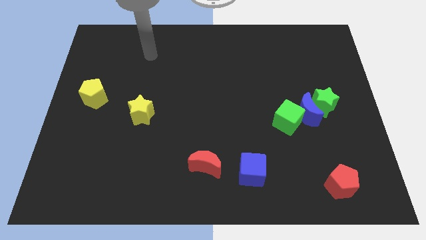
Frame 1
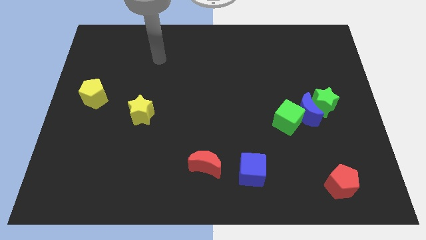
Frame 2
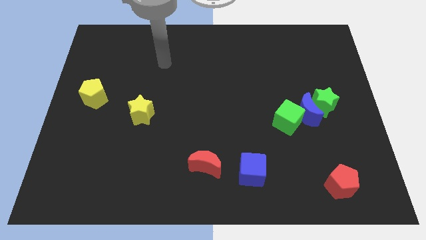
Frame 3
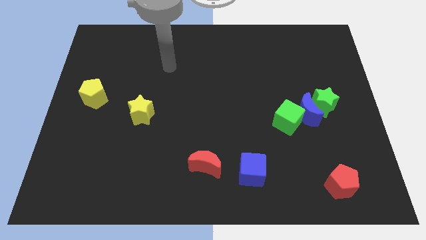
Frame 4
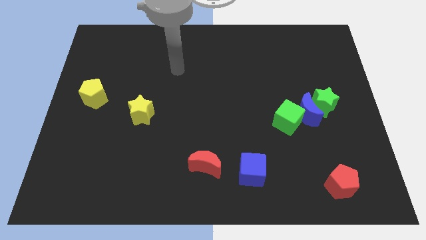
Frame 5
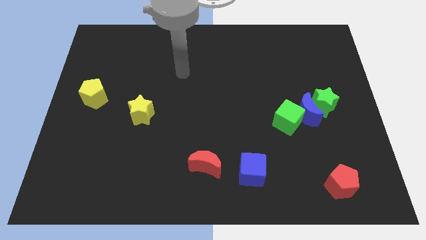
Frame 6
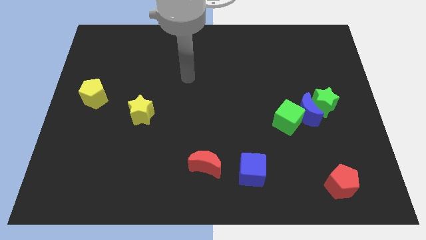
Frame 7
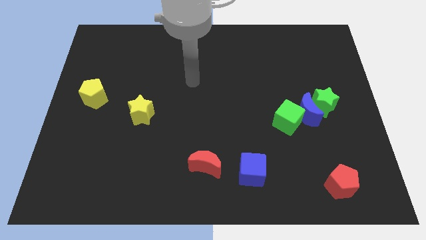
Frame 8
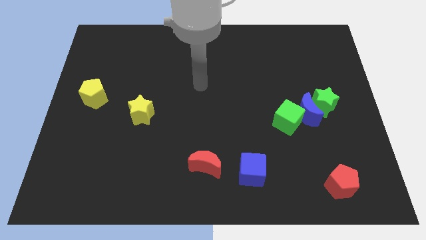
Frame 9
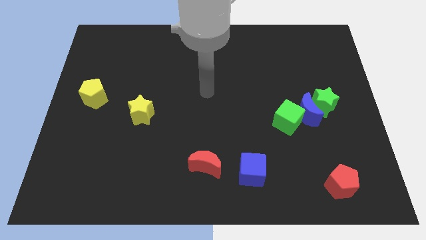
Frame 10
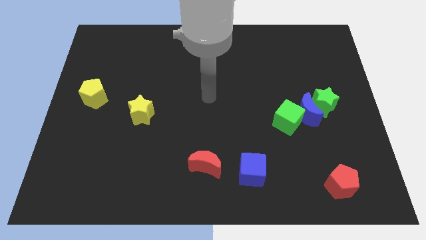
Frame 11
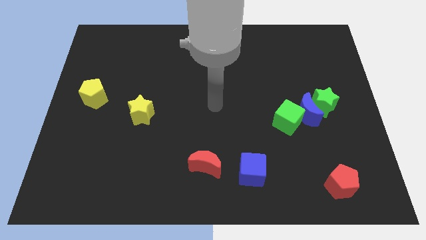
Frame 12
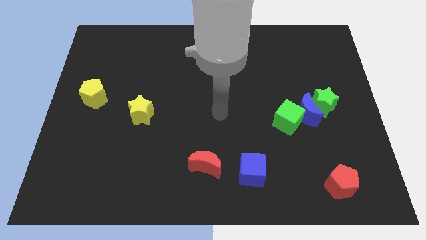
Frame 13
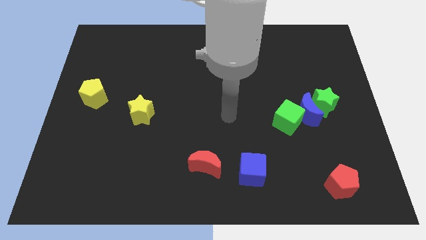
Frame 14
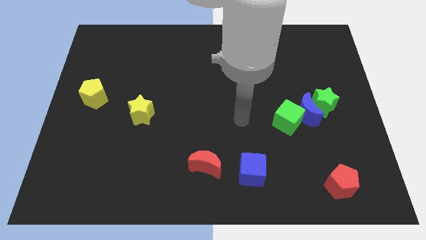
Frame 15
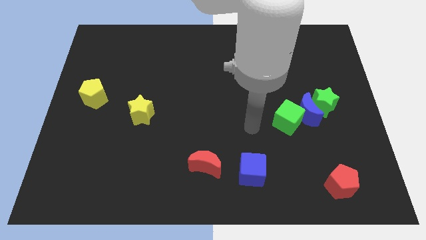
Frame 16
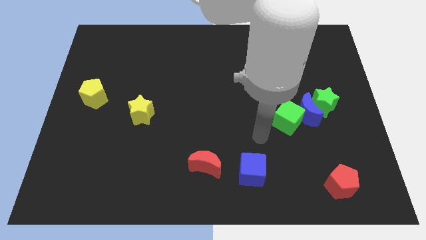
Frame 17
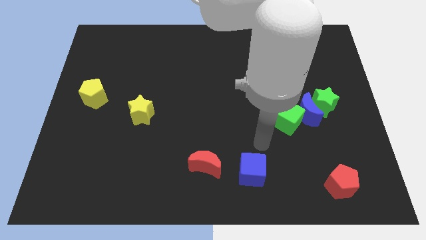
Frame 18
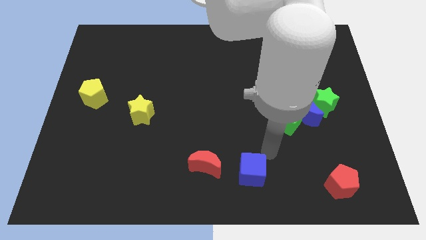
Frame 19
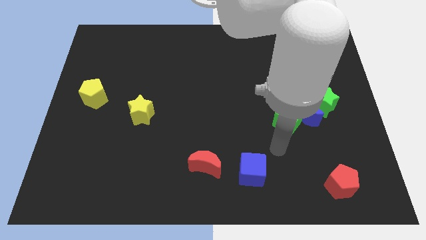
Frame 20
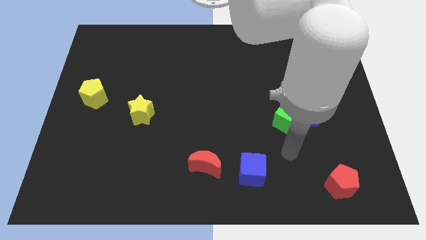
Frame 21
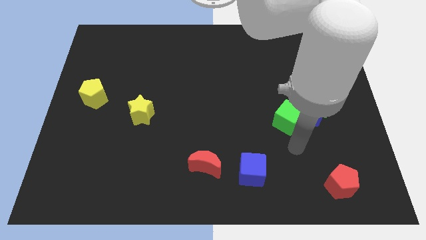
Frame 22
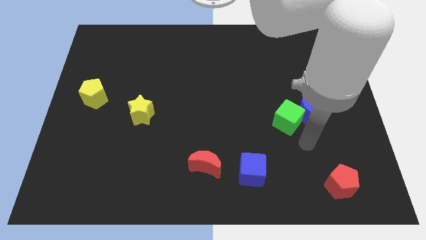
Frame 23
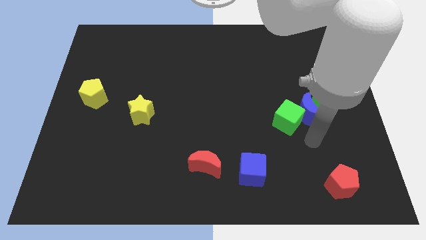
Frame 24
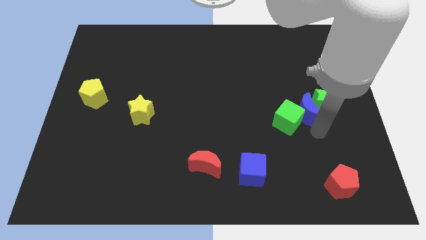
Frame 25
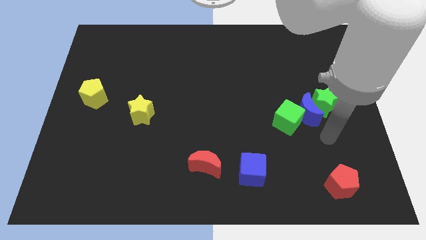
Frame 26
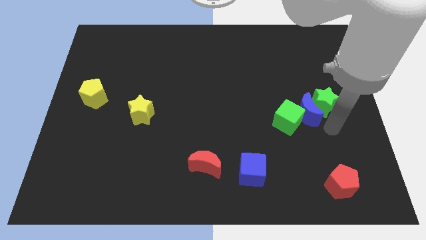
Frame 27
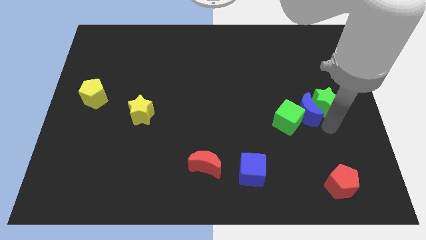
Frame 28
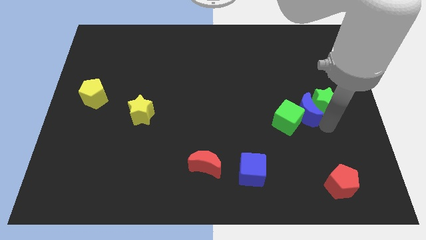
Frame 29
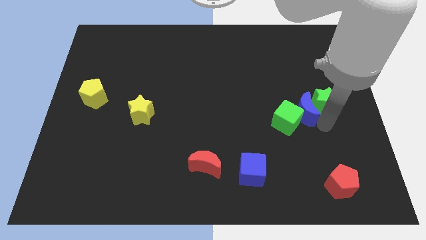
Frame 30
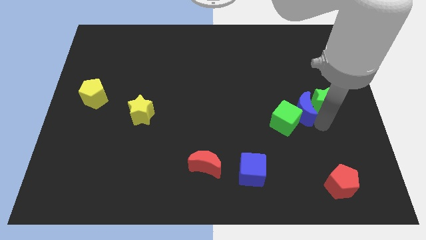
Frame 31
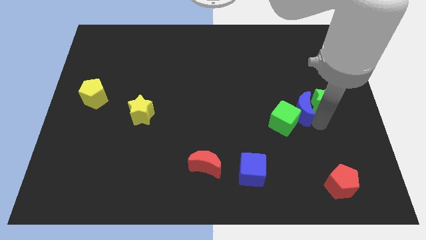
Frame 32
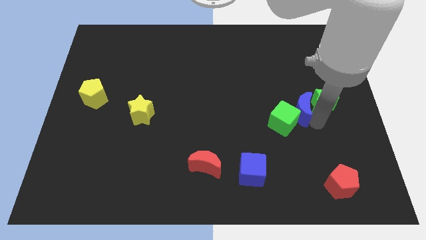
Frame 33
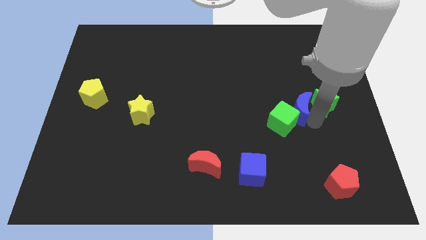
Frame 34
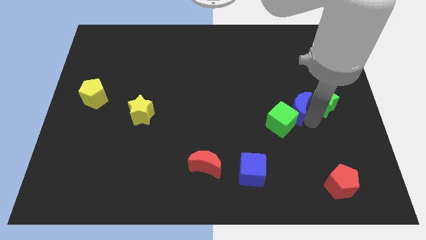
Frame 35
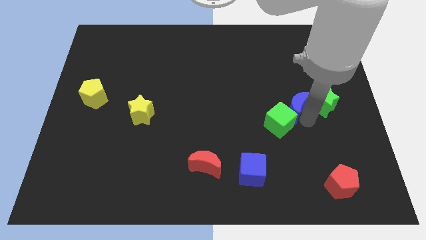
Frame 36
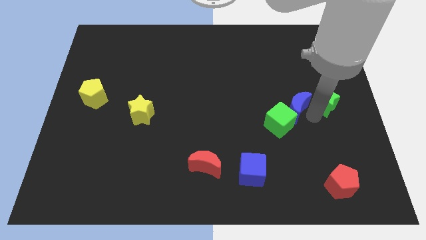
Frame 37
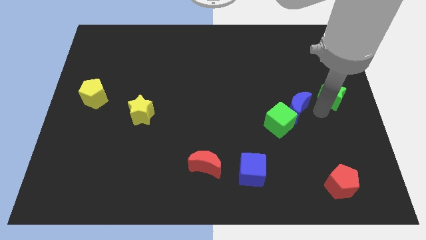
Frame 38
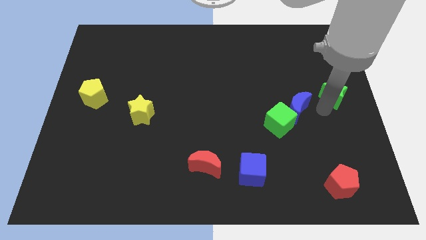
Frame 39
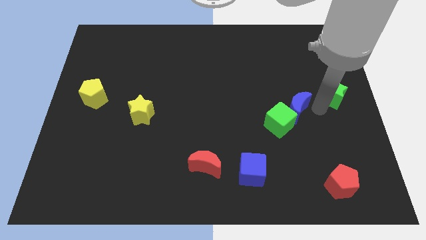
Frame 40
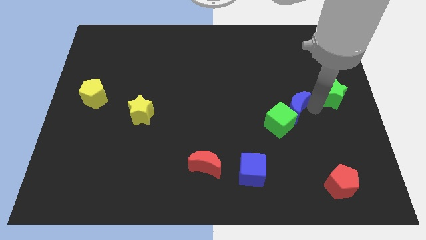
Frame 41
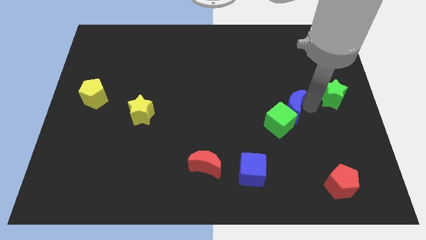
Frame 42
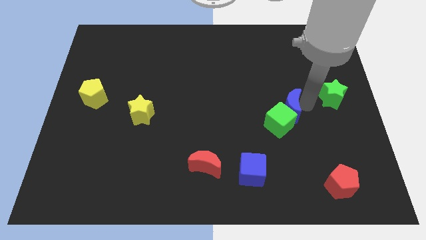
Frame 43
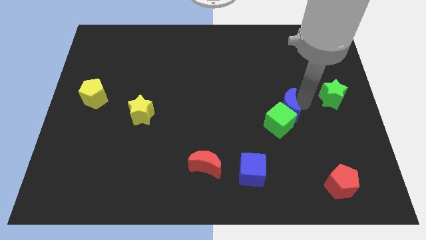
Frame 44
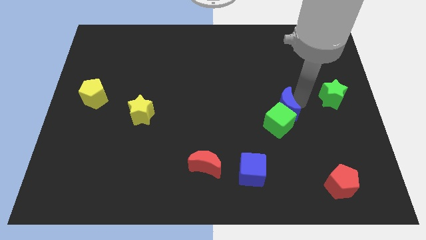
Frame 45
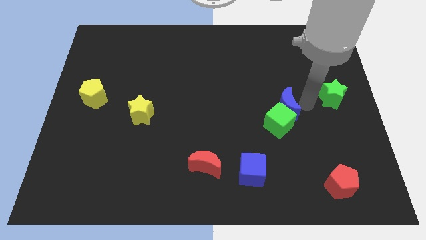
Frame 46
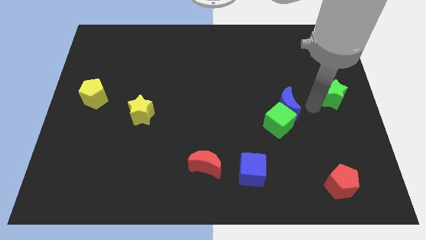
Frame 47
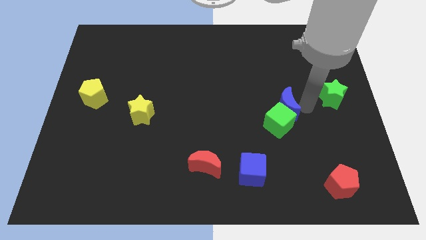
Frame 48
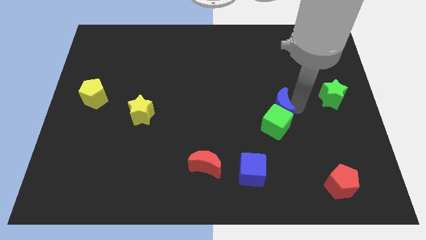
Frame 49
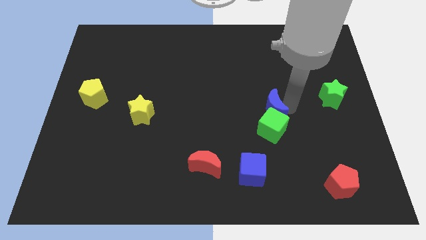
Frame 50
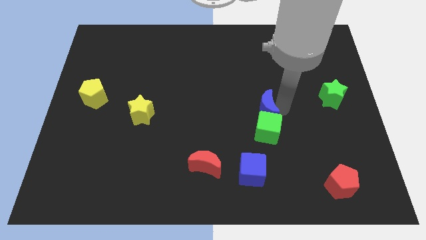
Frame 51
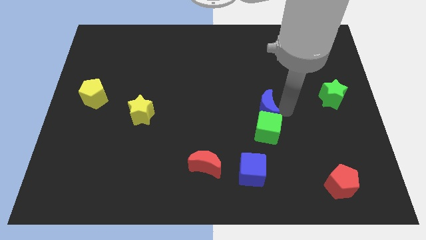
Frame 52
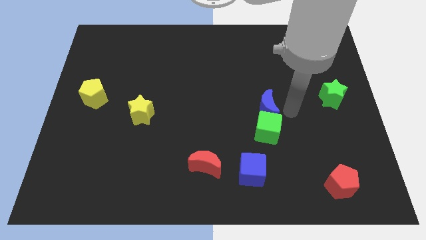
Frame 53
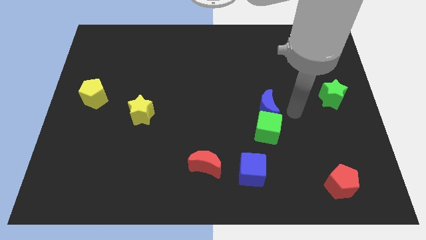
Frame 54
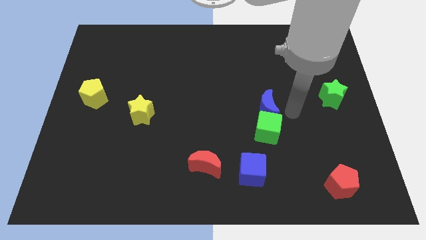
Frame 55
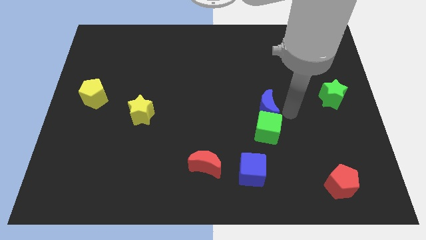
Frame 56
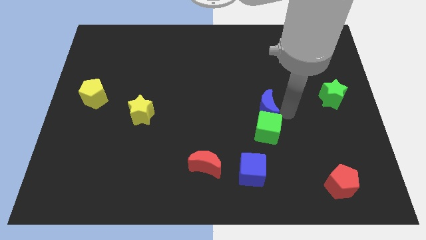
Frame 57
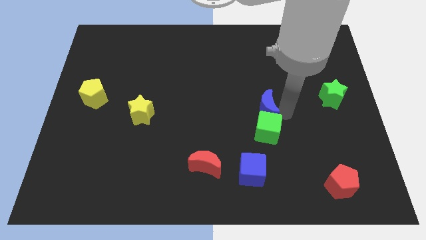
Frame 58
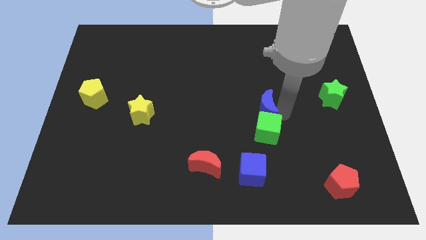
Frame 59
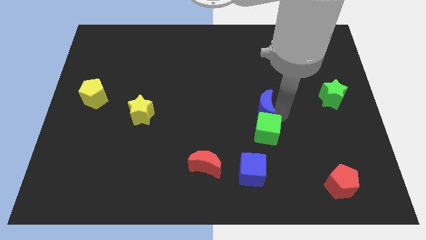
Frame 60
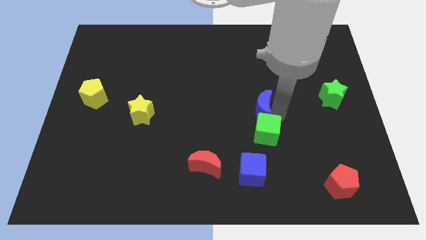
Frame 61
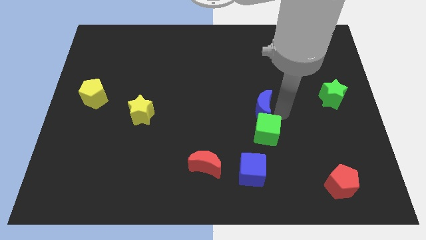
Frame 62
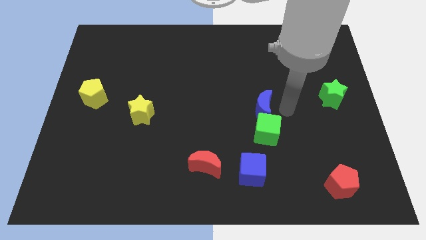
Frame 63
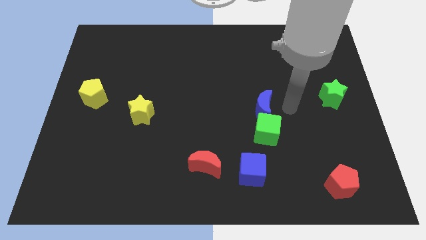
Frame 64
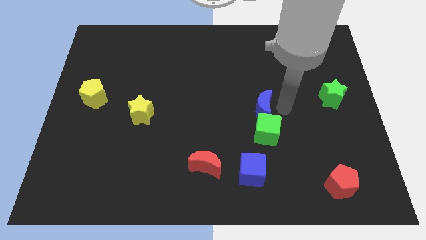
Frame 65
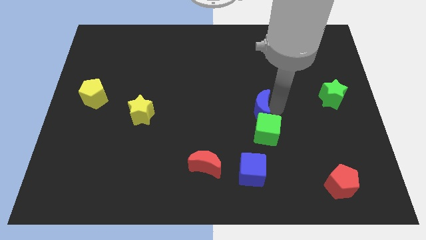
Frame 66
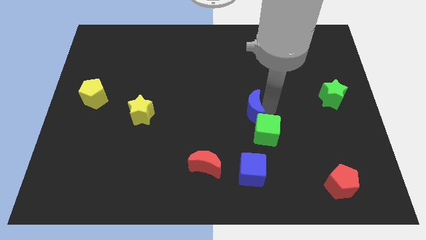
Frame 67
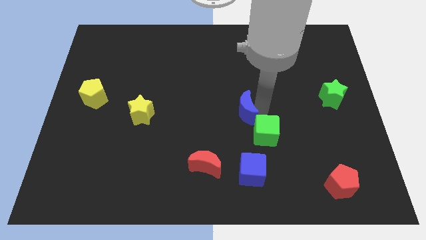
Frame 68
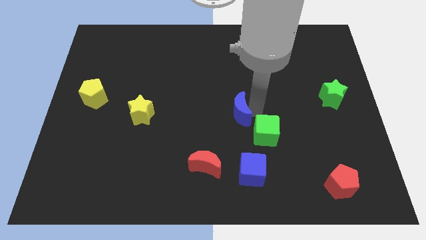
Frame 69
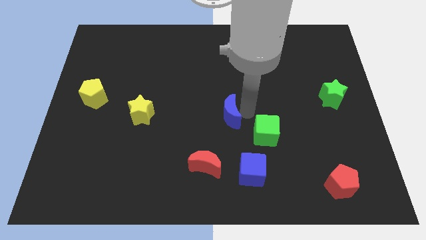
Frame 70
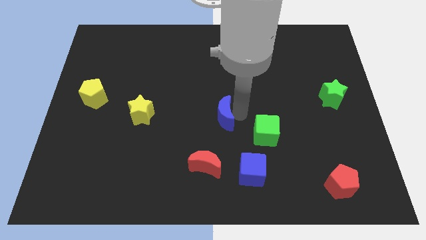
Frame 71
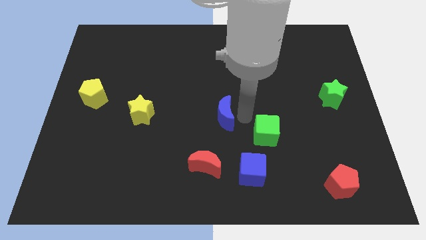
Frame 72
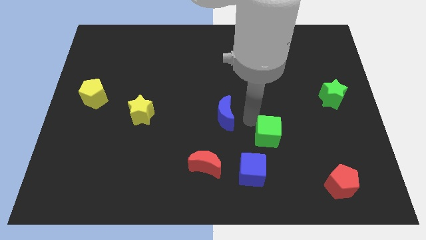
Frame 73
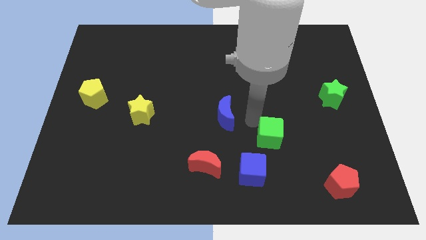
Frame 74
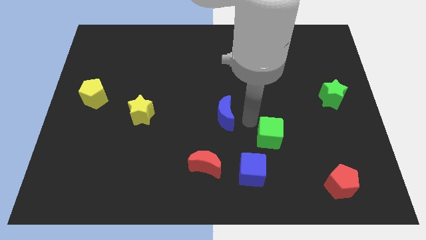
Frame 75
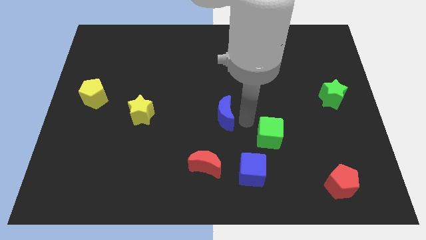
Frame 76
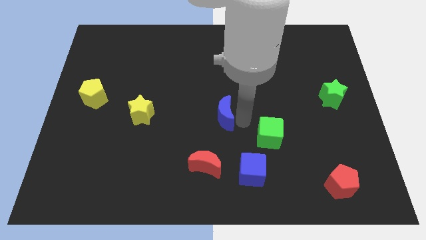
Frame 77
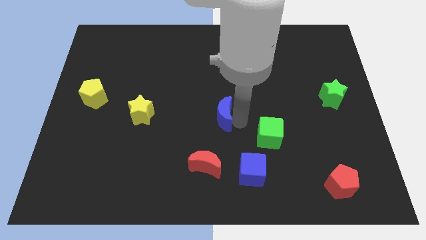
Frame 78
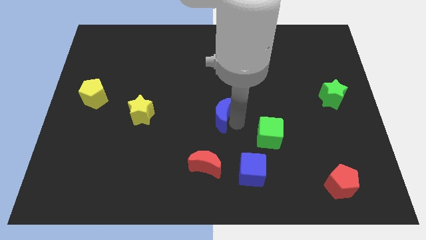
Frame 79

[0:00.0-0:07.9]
slide the blue moon to the left
